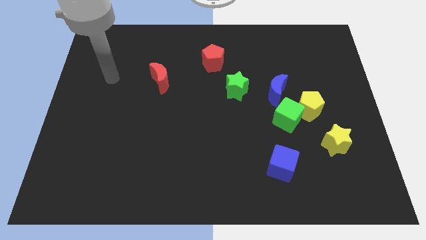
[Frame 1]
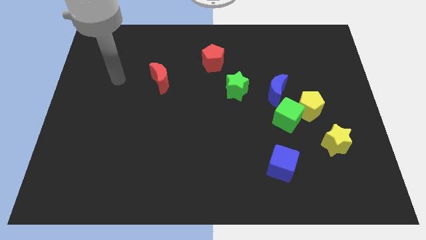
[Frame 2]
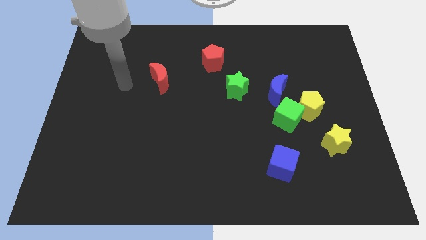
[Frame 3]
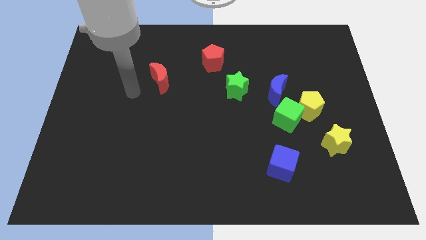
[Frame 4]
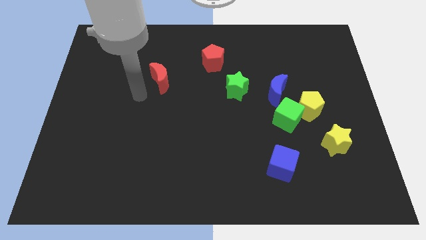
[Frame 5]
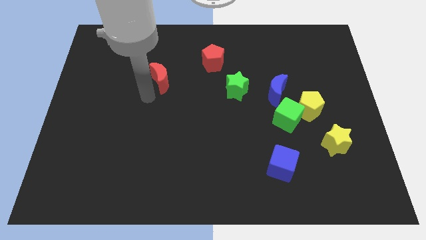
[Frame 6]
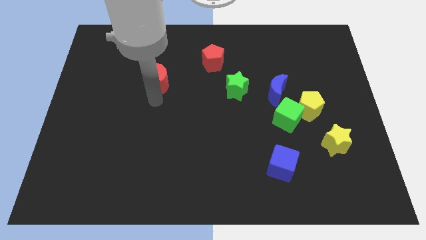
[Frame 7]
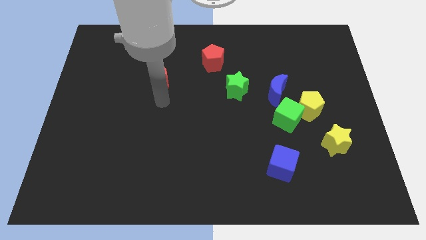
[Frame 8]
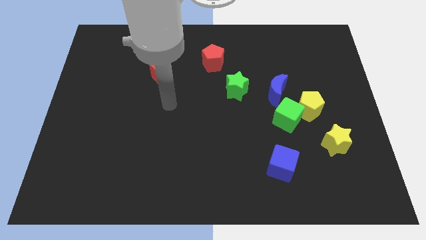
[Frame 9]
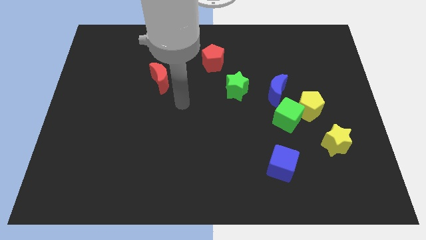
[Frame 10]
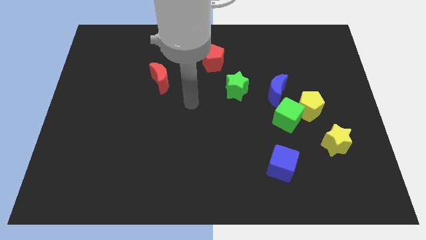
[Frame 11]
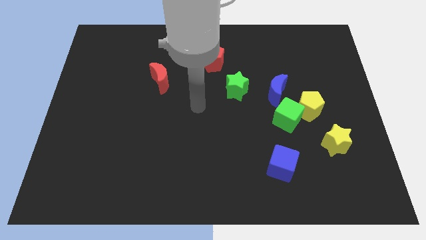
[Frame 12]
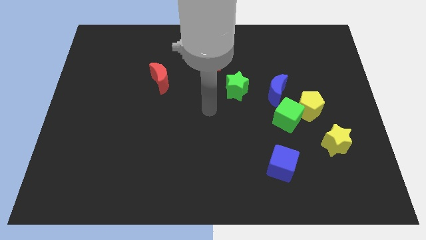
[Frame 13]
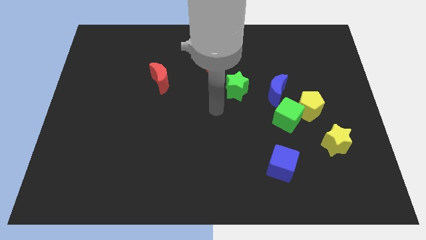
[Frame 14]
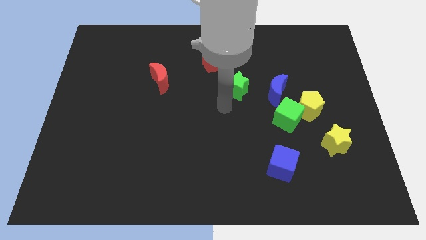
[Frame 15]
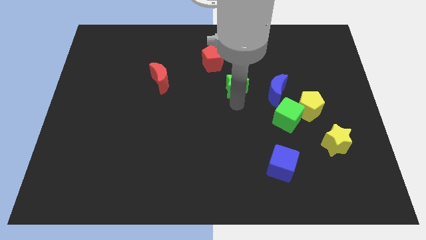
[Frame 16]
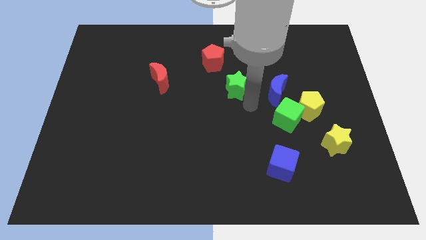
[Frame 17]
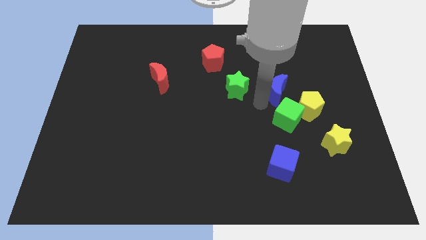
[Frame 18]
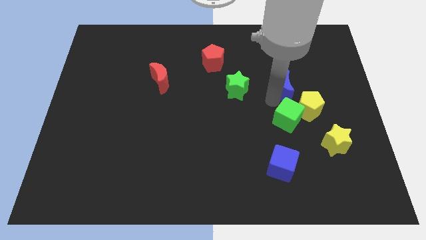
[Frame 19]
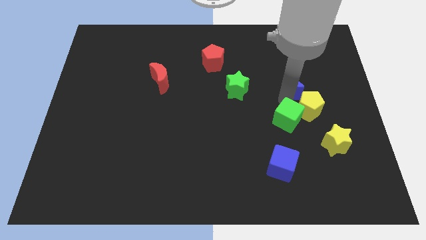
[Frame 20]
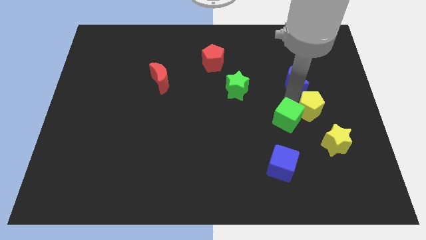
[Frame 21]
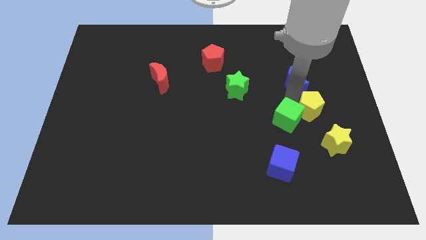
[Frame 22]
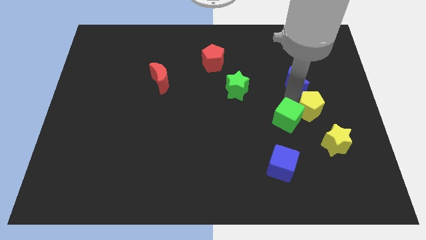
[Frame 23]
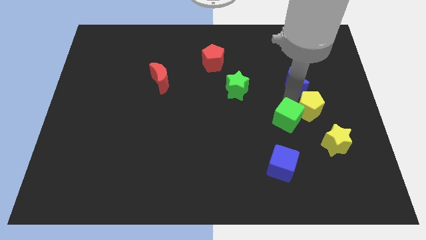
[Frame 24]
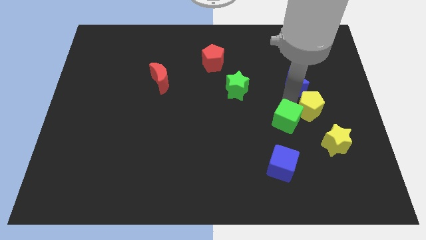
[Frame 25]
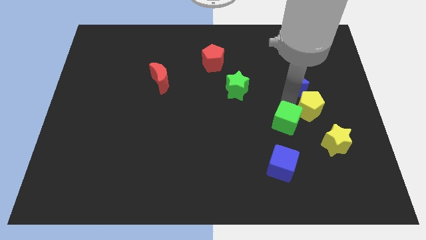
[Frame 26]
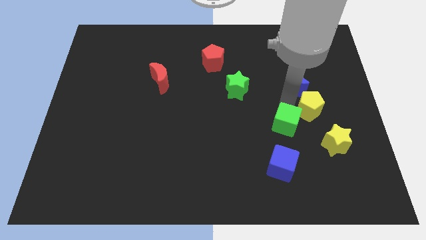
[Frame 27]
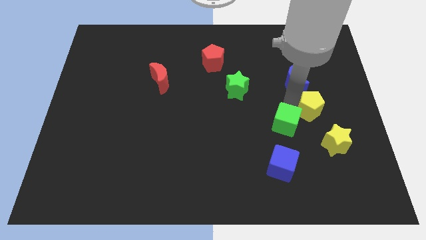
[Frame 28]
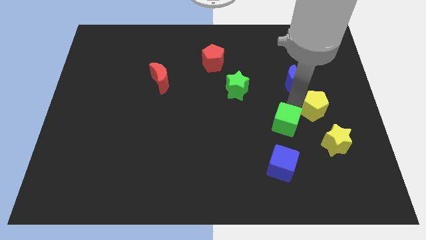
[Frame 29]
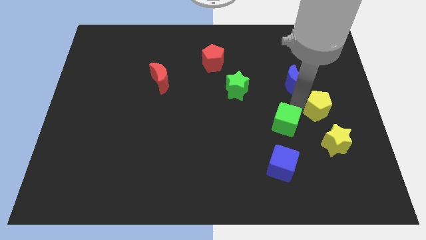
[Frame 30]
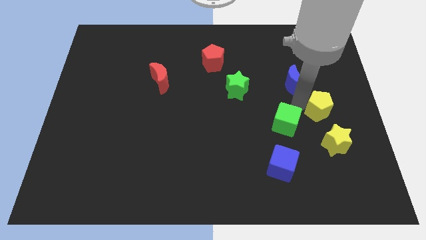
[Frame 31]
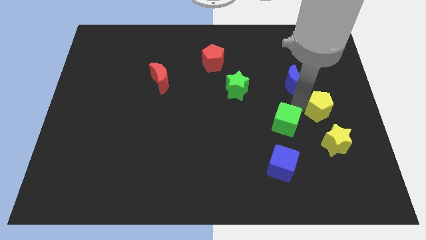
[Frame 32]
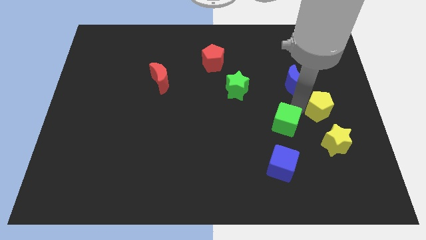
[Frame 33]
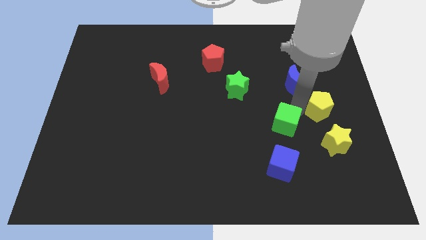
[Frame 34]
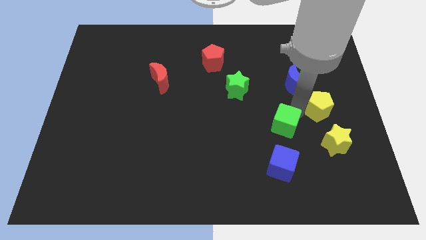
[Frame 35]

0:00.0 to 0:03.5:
separate the green cube from the yellow pentagon and blue moon

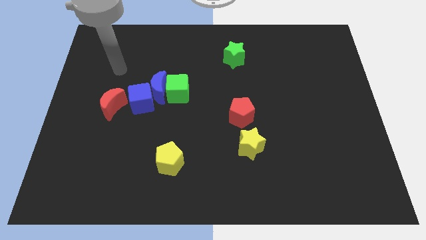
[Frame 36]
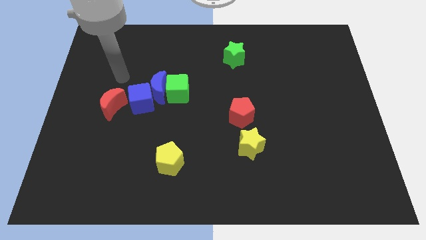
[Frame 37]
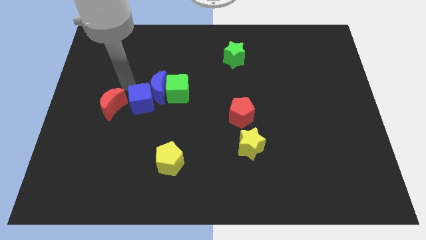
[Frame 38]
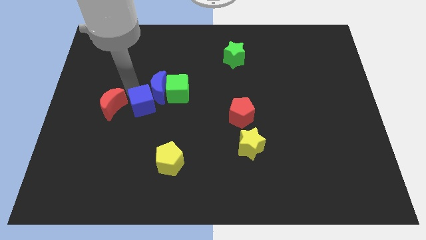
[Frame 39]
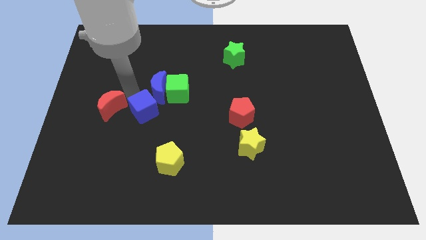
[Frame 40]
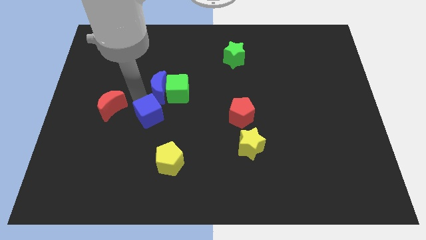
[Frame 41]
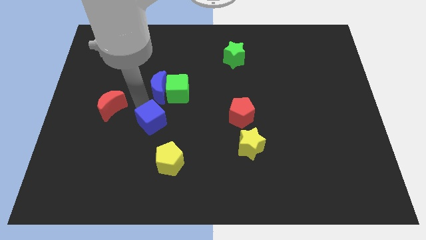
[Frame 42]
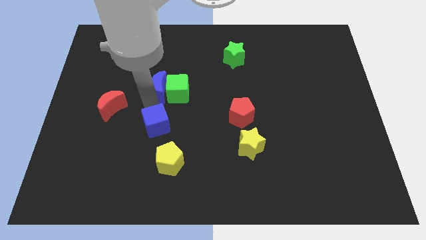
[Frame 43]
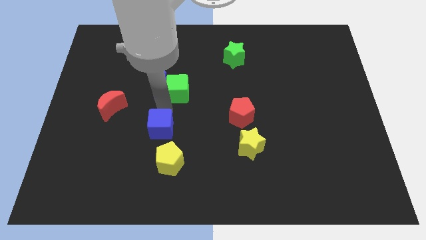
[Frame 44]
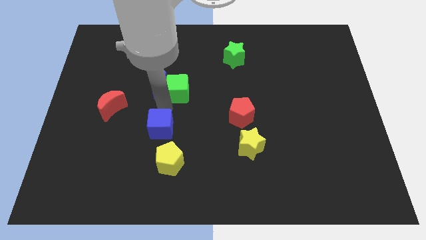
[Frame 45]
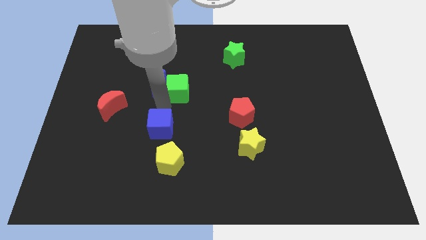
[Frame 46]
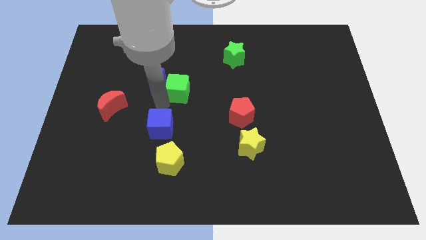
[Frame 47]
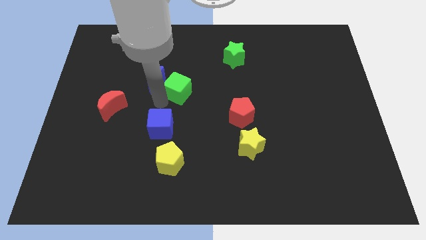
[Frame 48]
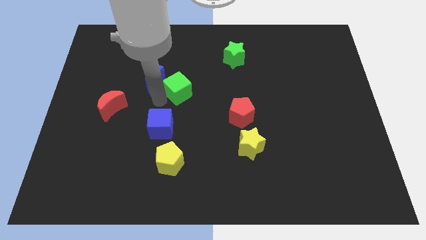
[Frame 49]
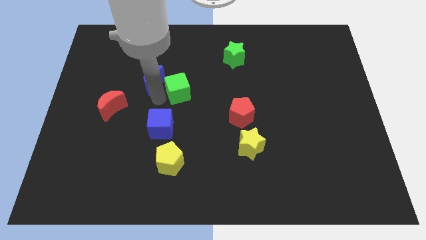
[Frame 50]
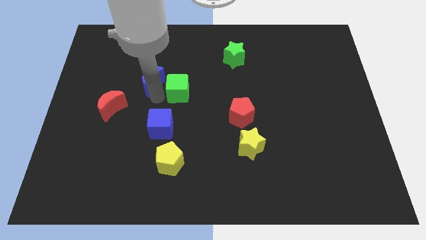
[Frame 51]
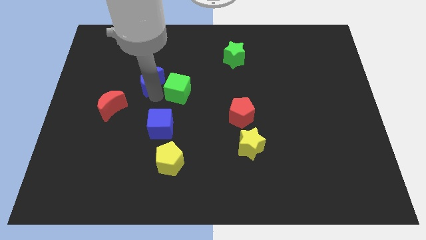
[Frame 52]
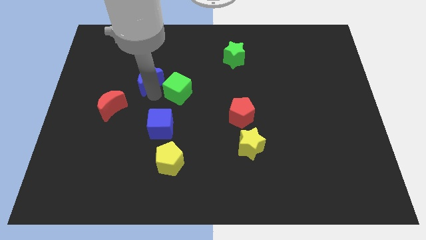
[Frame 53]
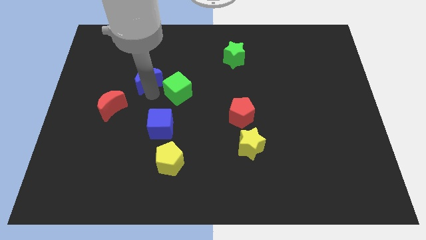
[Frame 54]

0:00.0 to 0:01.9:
pull the blue moon apart from the green cube and blue cube

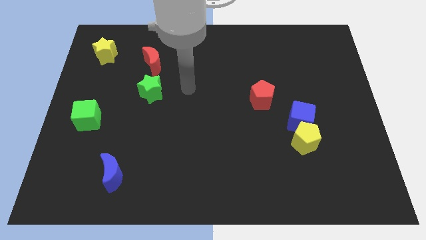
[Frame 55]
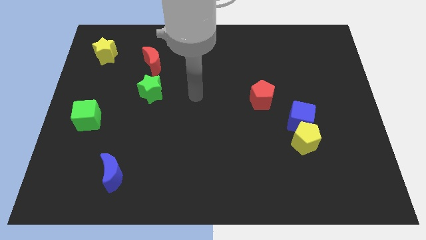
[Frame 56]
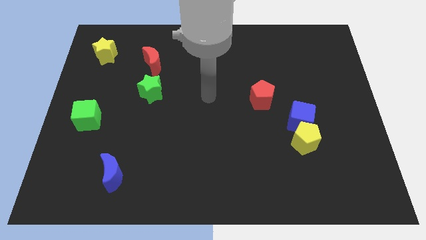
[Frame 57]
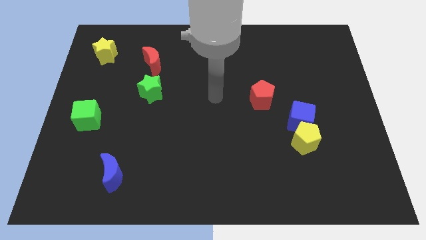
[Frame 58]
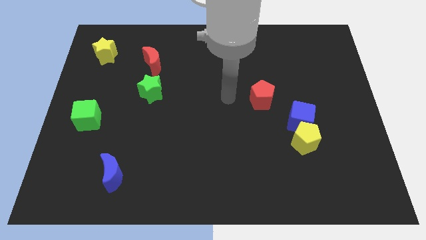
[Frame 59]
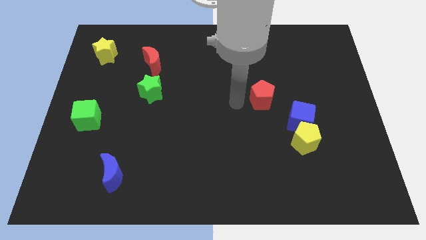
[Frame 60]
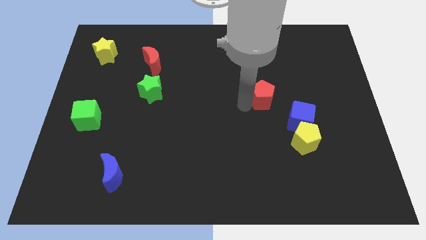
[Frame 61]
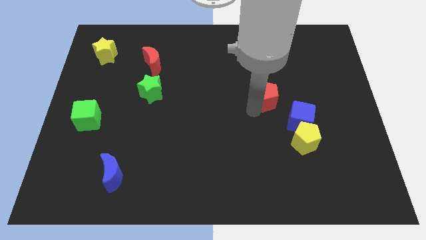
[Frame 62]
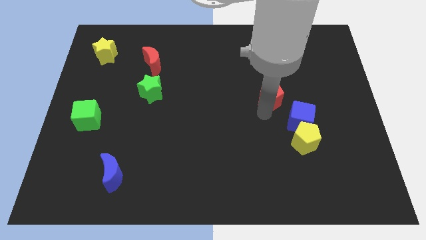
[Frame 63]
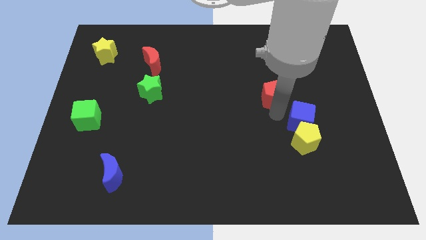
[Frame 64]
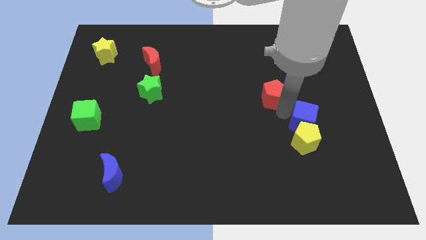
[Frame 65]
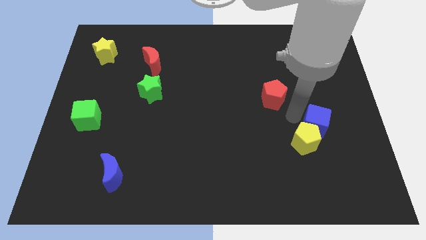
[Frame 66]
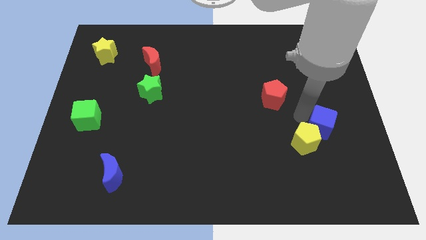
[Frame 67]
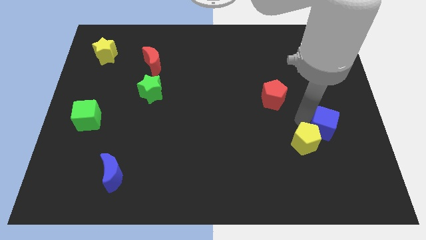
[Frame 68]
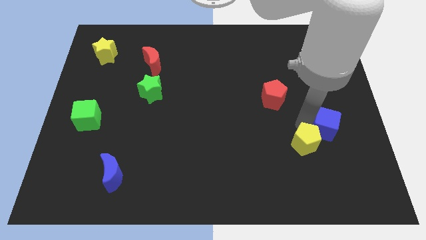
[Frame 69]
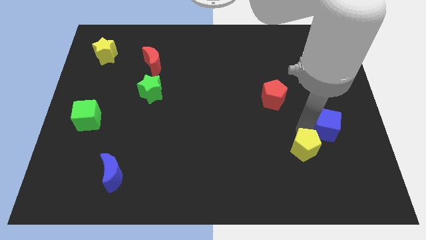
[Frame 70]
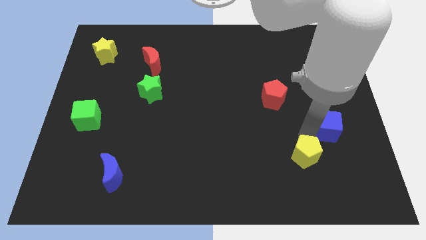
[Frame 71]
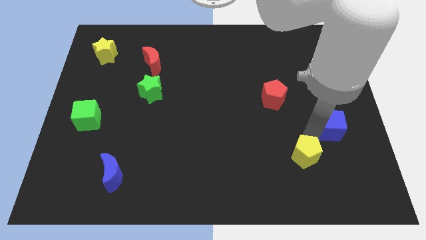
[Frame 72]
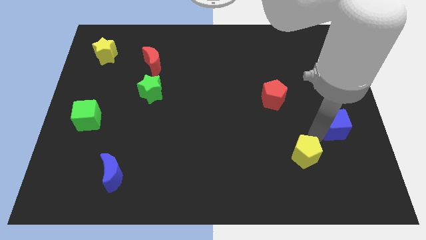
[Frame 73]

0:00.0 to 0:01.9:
pull the yellow pentagon apart from the blue cube

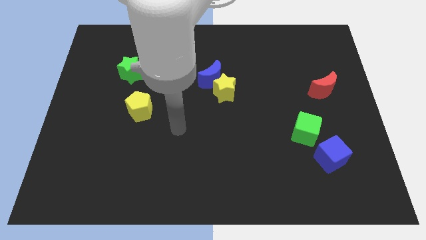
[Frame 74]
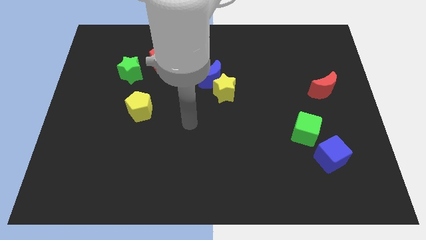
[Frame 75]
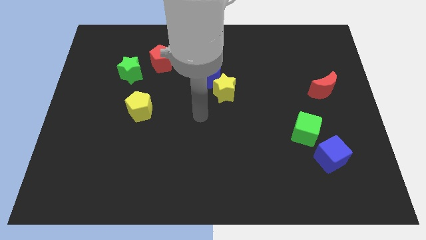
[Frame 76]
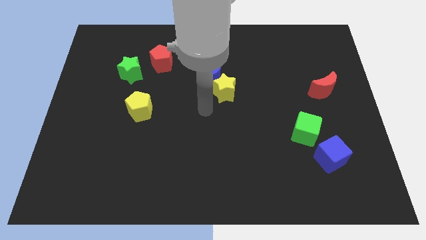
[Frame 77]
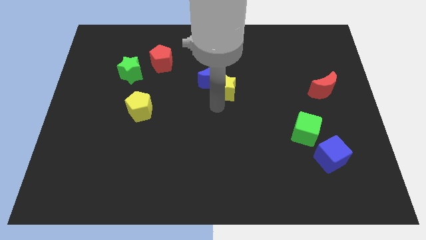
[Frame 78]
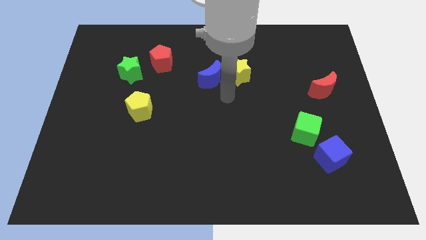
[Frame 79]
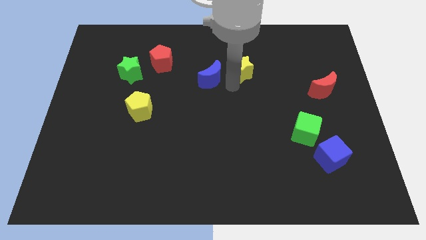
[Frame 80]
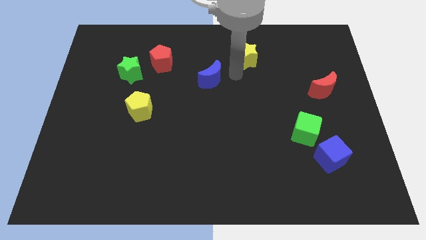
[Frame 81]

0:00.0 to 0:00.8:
pull the blue moon apart from the yellow star

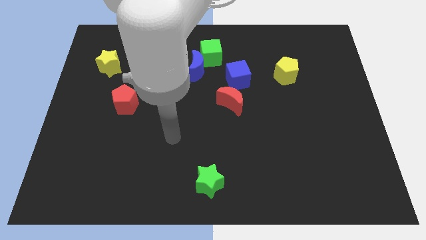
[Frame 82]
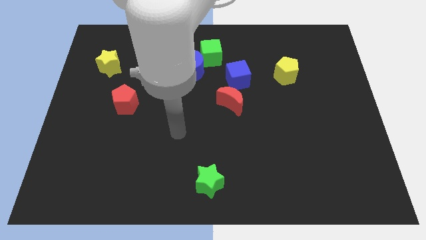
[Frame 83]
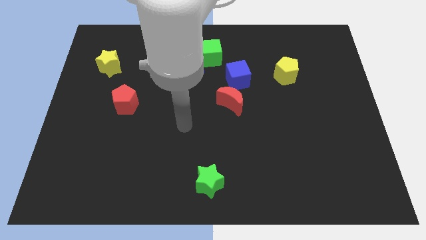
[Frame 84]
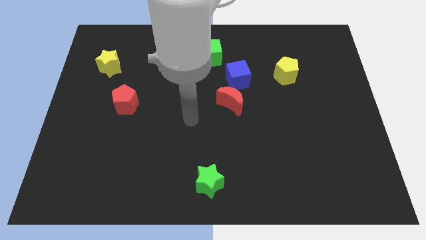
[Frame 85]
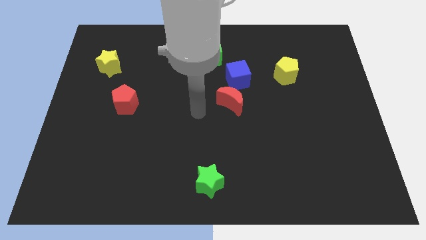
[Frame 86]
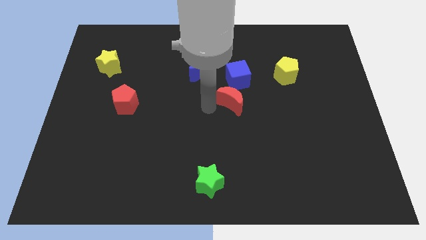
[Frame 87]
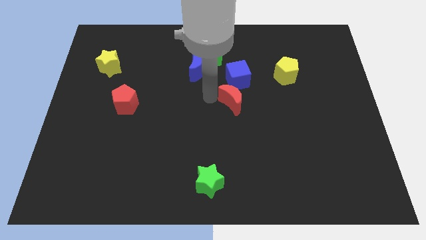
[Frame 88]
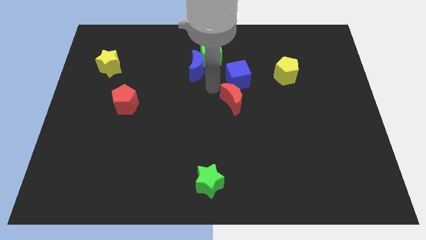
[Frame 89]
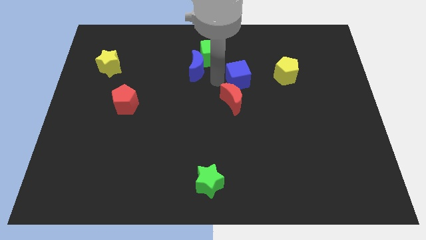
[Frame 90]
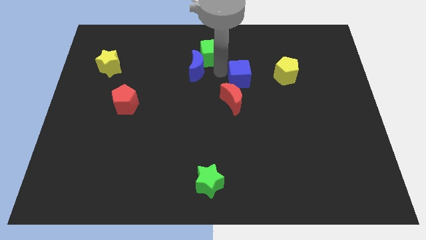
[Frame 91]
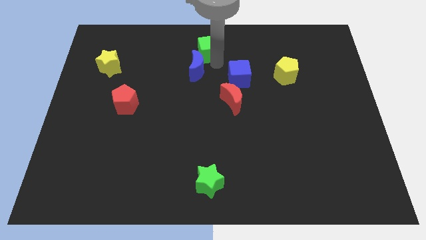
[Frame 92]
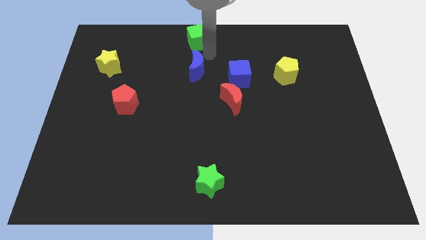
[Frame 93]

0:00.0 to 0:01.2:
pull the blue moon apart from the green cube

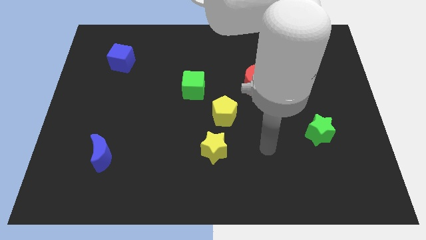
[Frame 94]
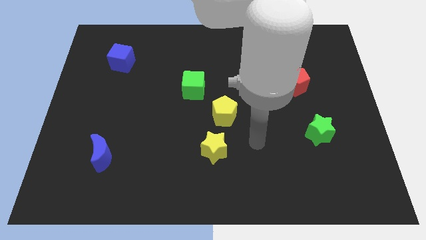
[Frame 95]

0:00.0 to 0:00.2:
separate the yellow star from the yellow pentagon
